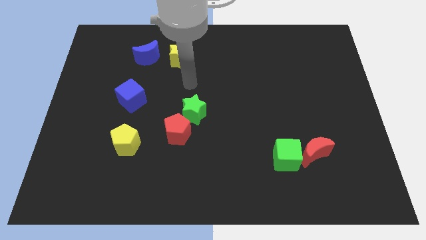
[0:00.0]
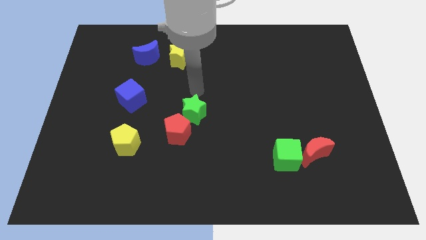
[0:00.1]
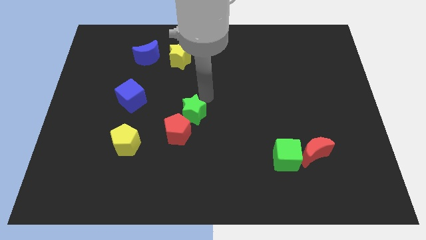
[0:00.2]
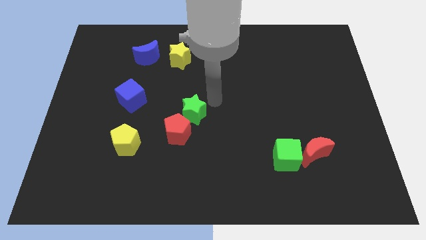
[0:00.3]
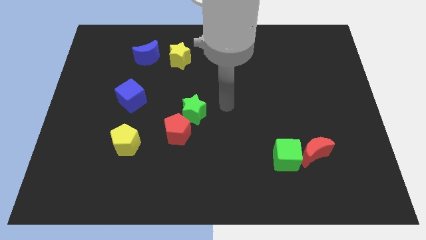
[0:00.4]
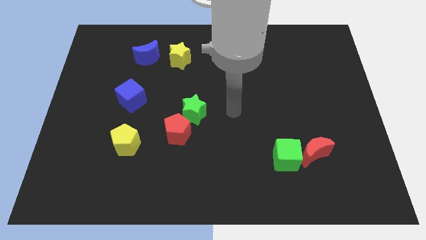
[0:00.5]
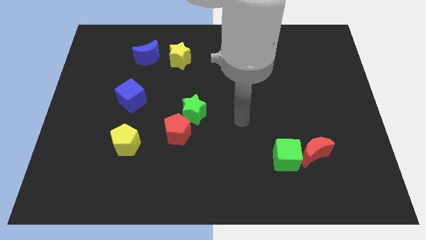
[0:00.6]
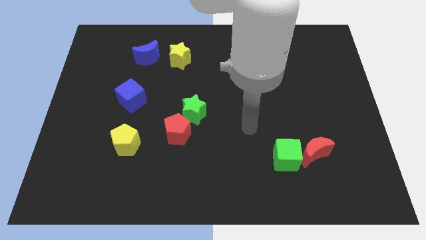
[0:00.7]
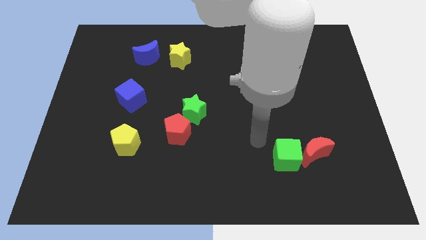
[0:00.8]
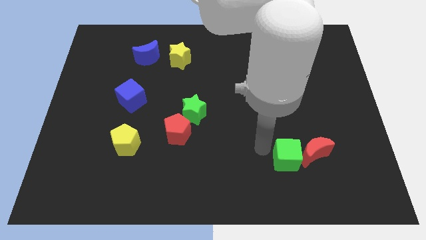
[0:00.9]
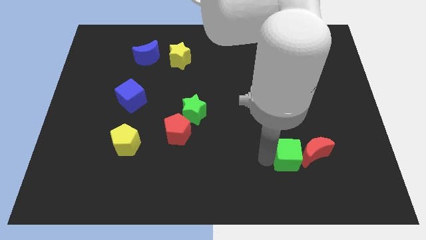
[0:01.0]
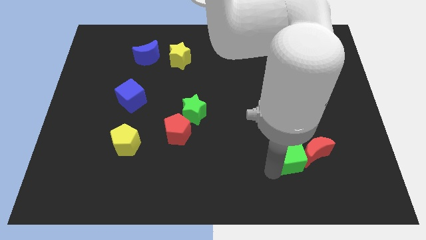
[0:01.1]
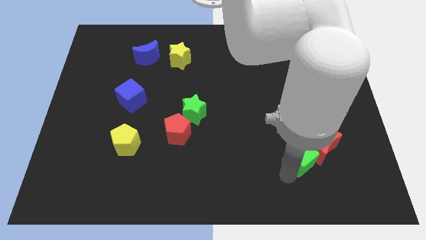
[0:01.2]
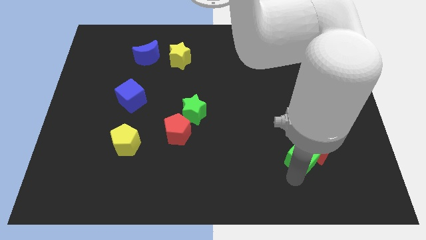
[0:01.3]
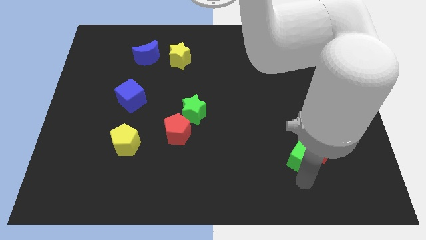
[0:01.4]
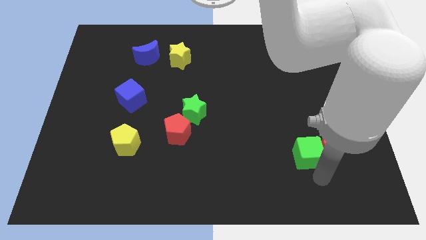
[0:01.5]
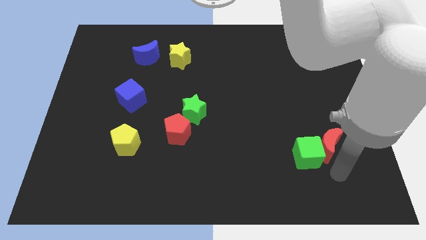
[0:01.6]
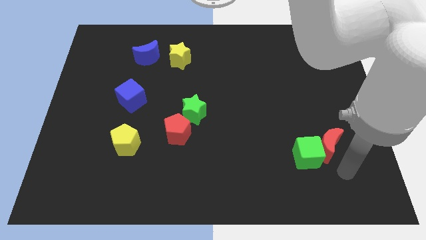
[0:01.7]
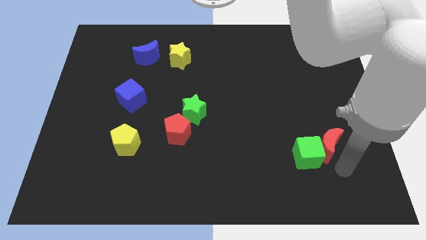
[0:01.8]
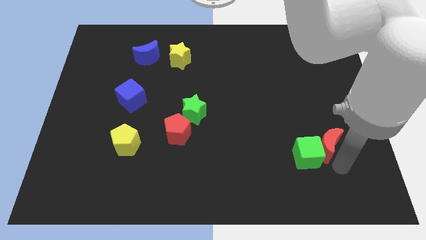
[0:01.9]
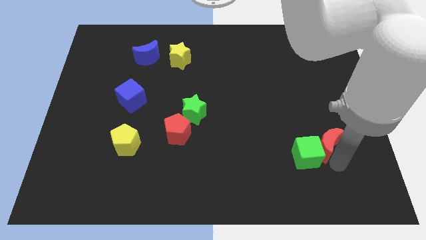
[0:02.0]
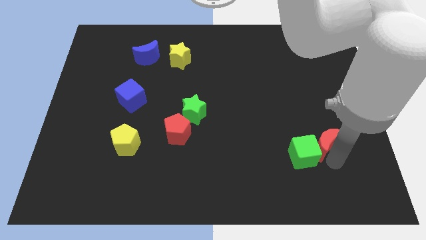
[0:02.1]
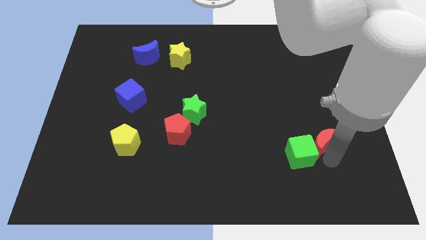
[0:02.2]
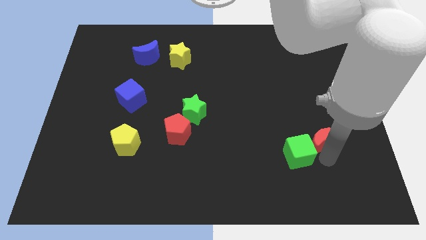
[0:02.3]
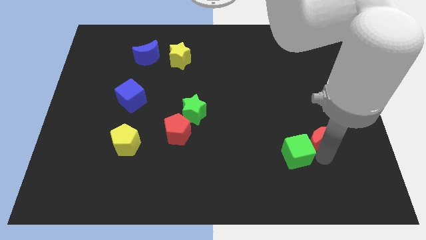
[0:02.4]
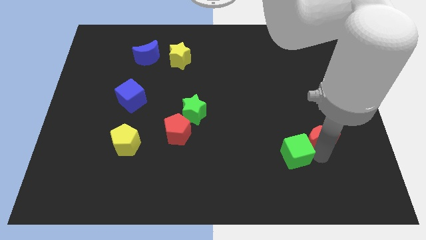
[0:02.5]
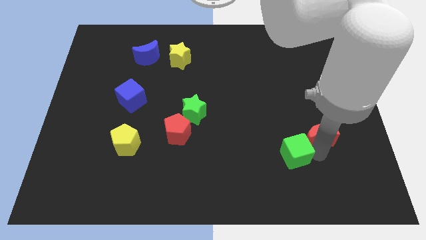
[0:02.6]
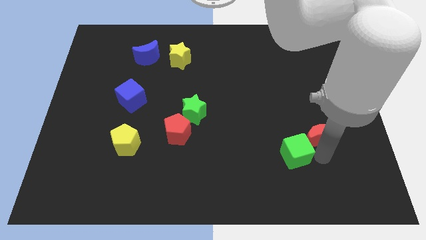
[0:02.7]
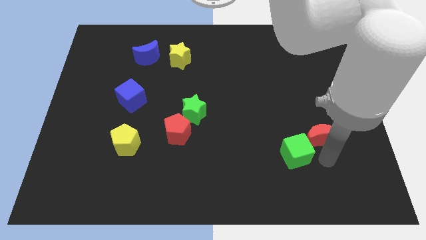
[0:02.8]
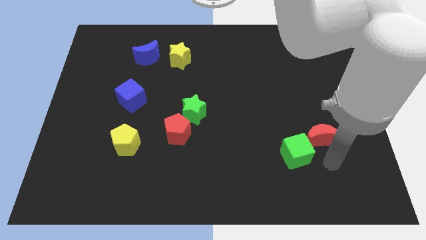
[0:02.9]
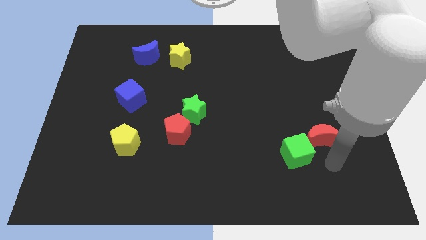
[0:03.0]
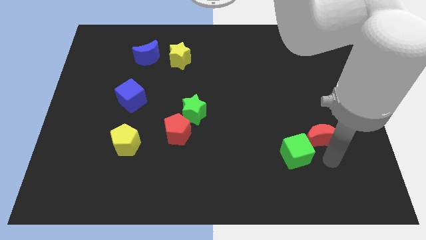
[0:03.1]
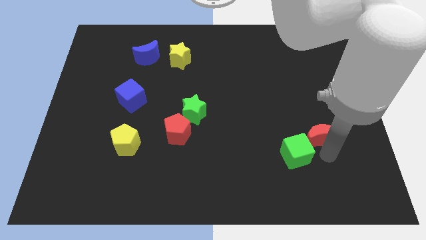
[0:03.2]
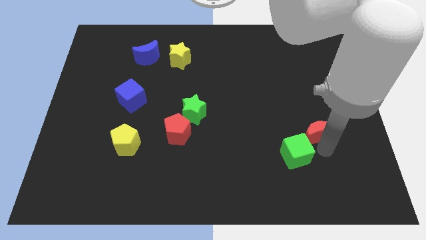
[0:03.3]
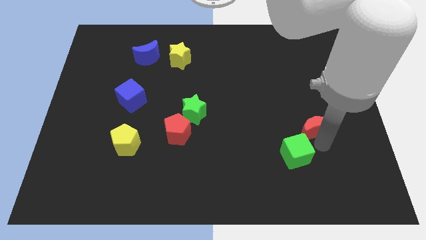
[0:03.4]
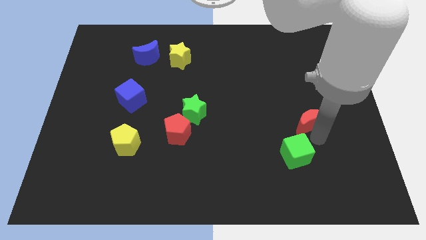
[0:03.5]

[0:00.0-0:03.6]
slightly move the red moon upwards

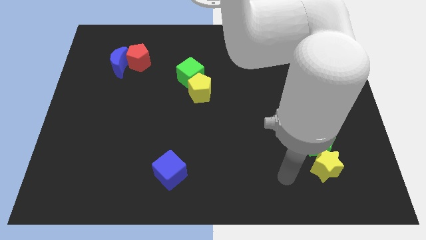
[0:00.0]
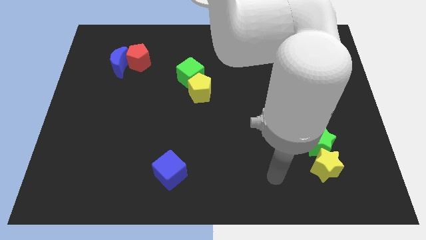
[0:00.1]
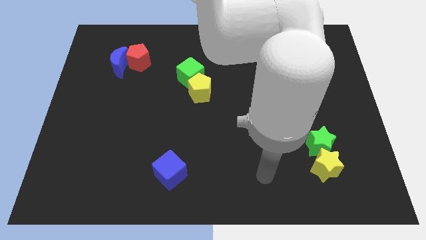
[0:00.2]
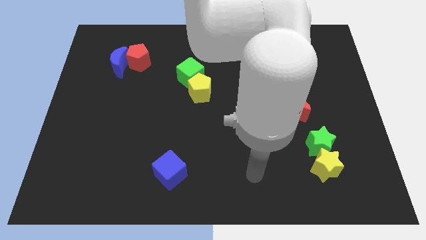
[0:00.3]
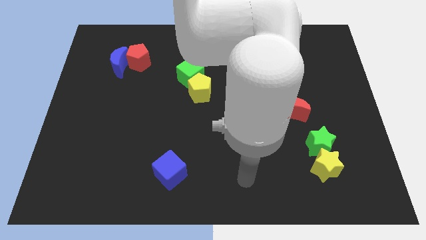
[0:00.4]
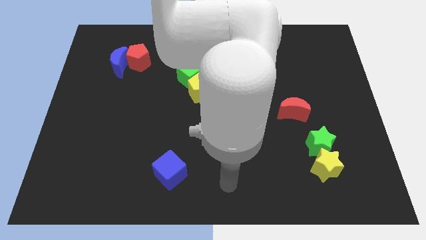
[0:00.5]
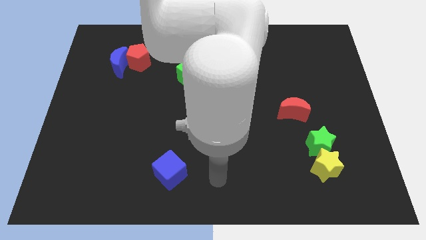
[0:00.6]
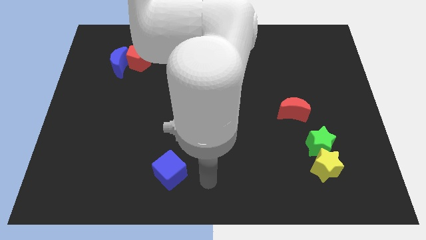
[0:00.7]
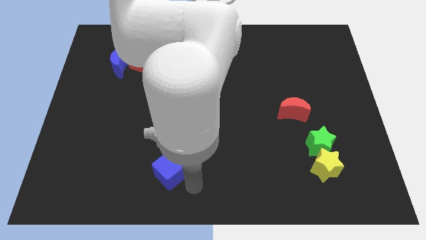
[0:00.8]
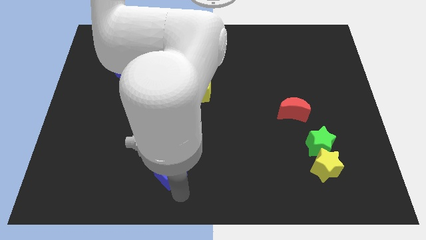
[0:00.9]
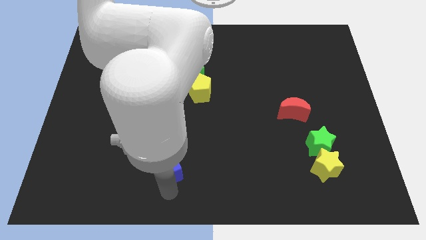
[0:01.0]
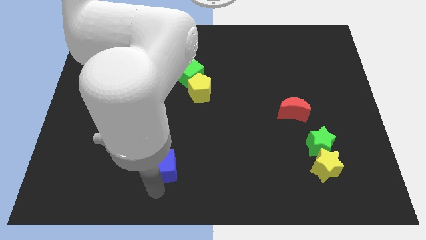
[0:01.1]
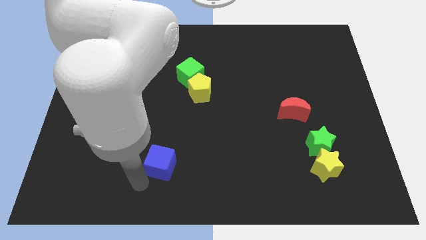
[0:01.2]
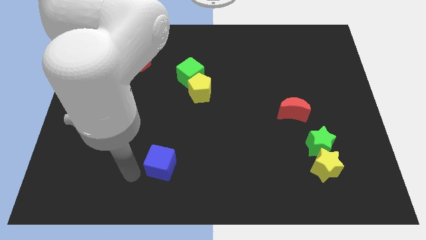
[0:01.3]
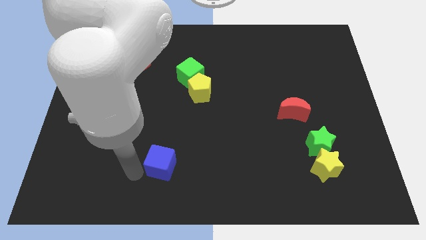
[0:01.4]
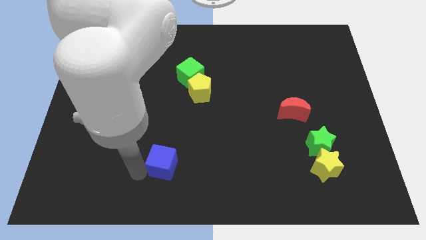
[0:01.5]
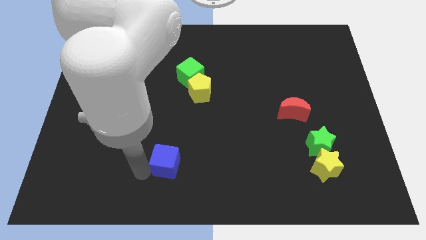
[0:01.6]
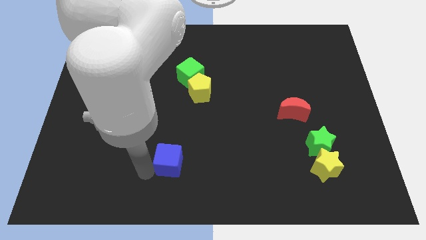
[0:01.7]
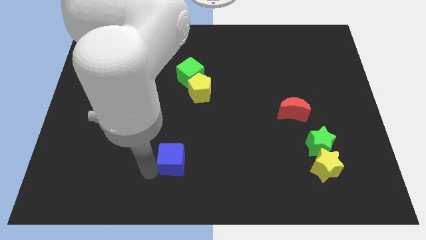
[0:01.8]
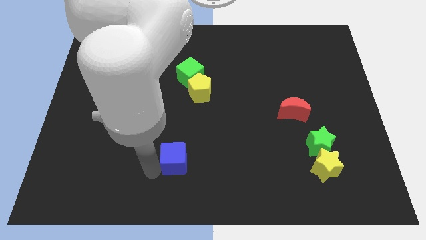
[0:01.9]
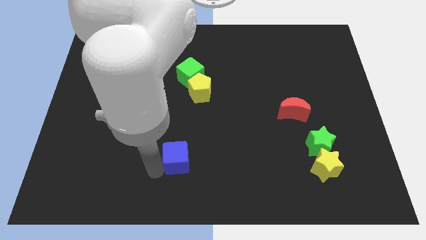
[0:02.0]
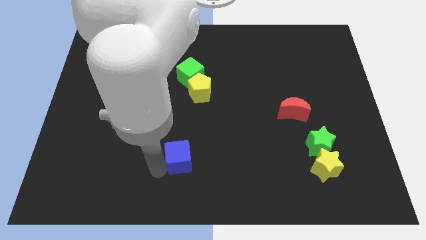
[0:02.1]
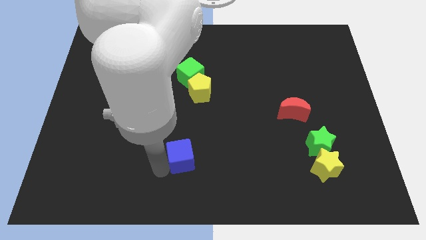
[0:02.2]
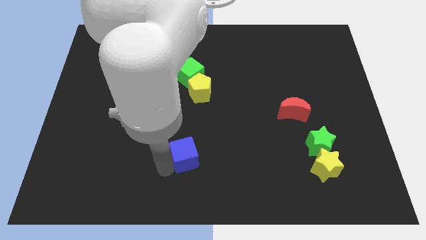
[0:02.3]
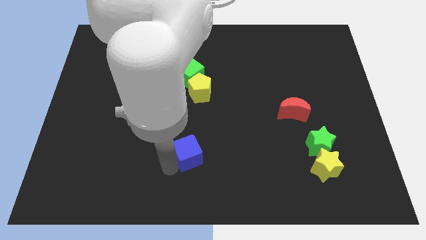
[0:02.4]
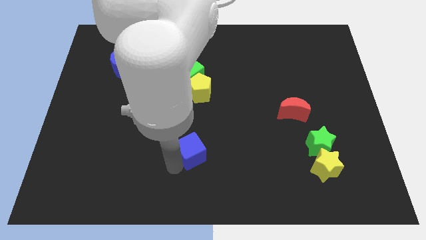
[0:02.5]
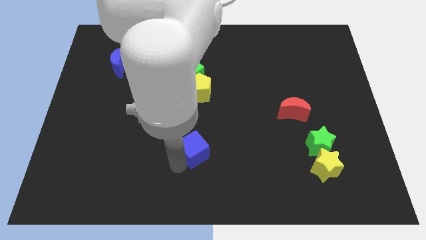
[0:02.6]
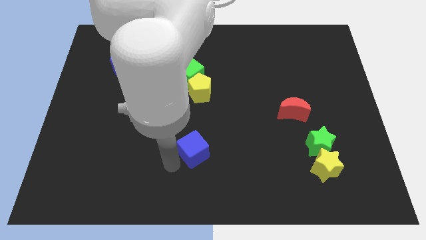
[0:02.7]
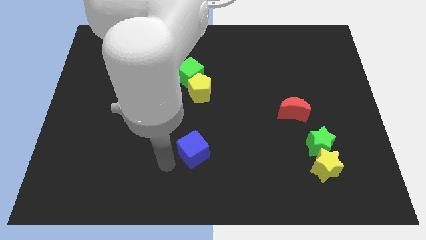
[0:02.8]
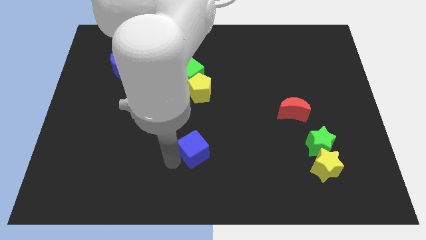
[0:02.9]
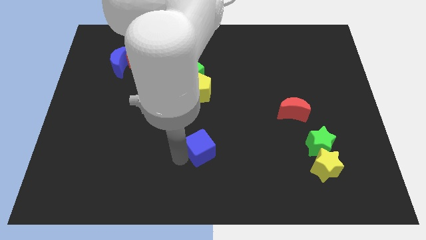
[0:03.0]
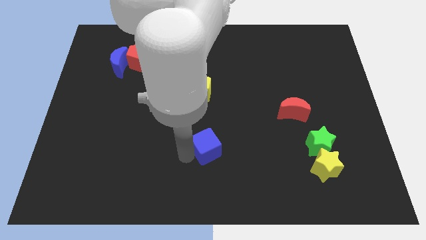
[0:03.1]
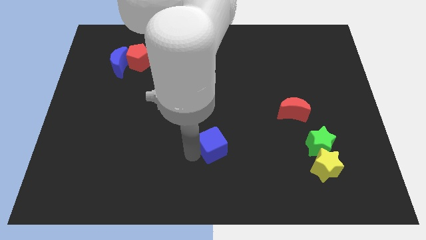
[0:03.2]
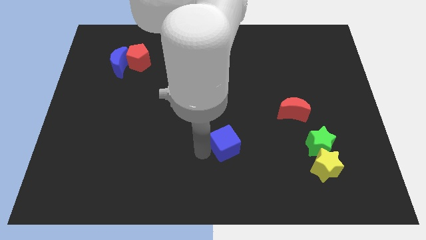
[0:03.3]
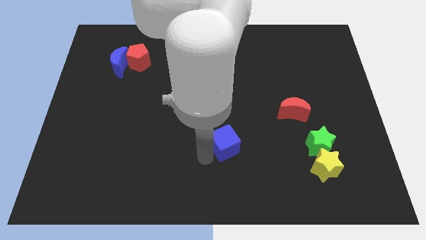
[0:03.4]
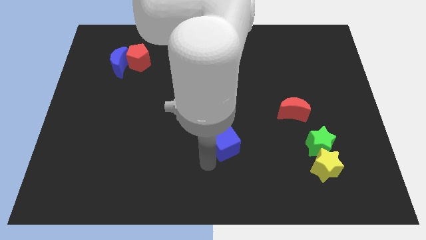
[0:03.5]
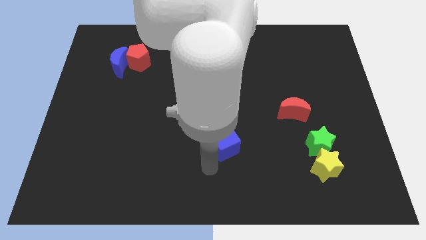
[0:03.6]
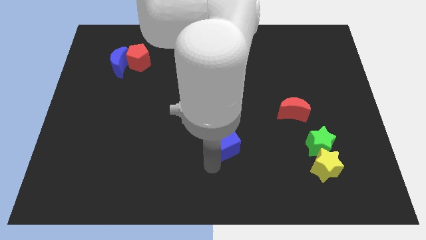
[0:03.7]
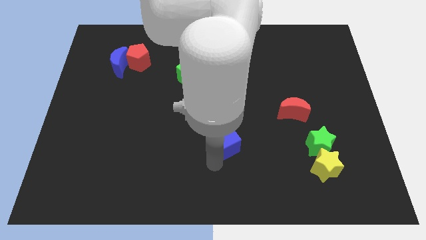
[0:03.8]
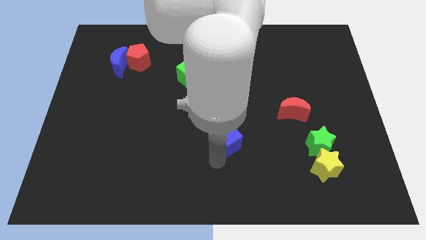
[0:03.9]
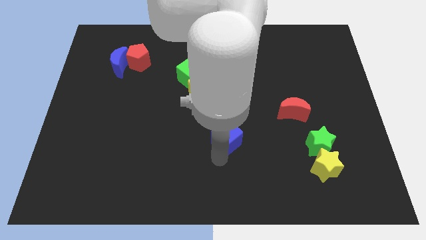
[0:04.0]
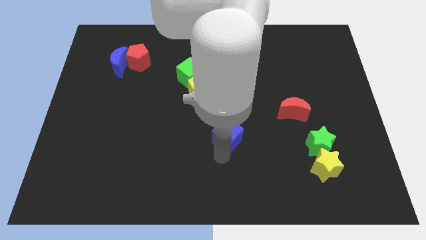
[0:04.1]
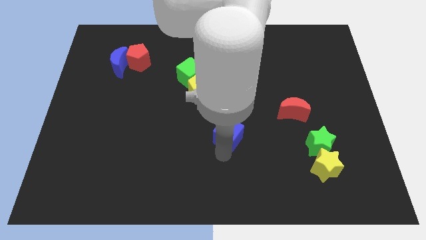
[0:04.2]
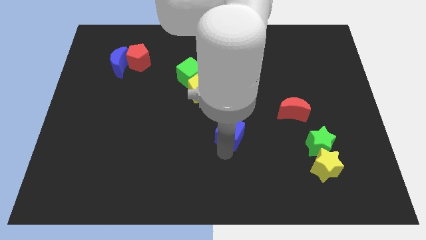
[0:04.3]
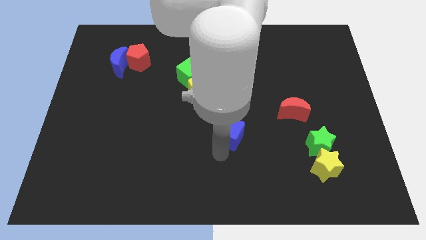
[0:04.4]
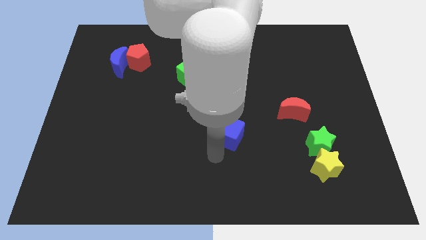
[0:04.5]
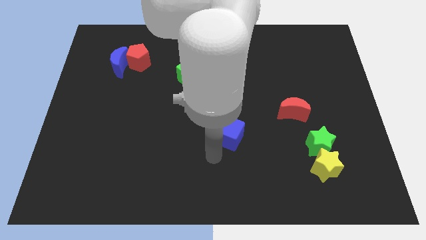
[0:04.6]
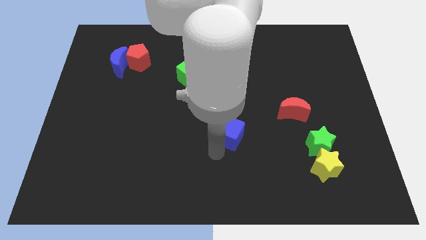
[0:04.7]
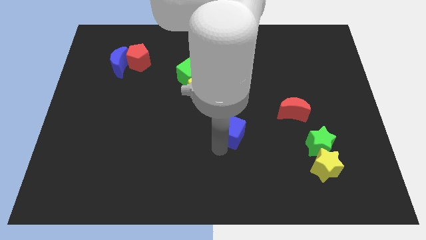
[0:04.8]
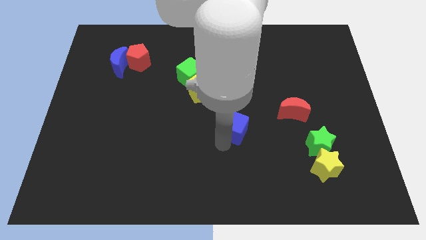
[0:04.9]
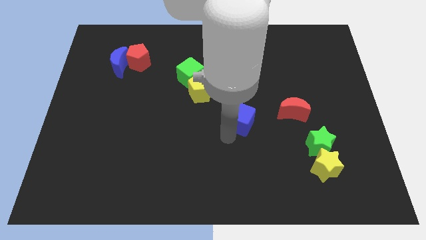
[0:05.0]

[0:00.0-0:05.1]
slide the blue cube upwards and right
